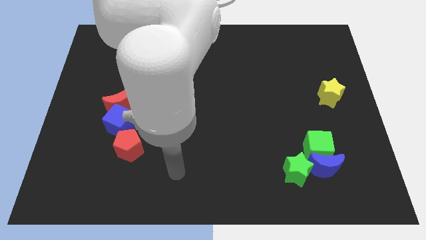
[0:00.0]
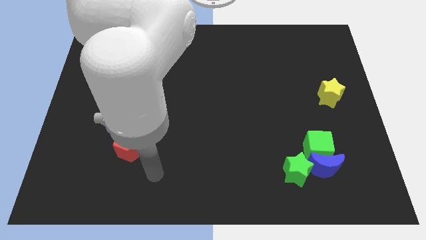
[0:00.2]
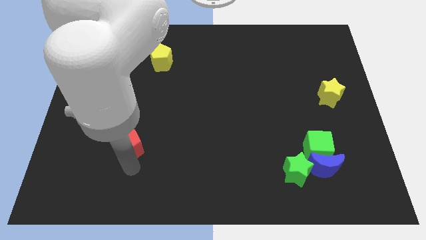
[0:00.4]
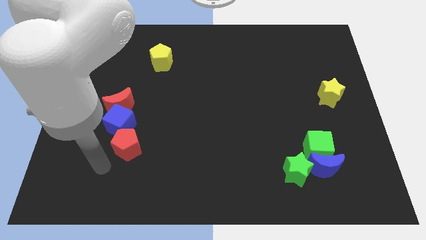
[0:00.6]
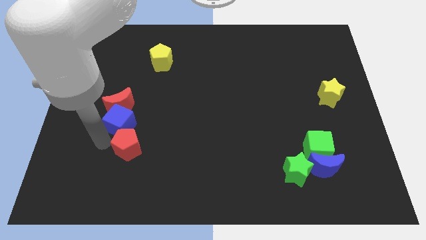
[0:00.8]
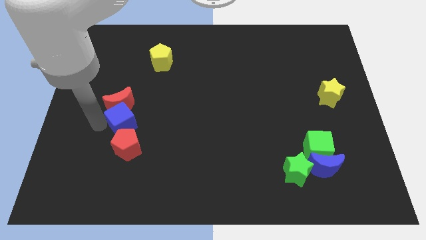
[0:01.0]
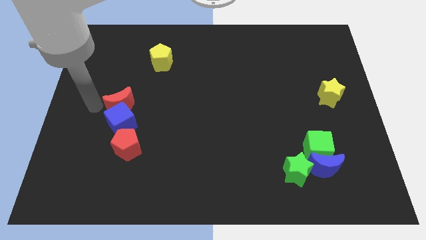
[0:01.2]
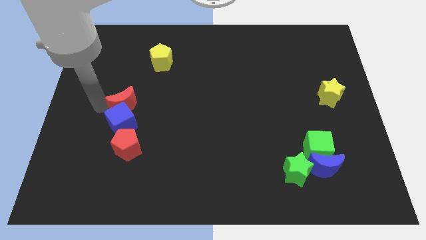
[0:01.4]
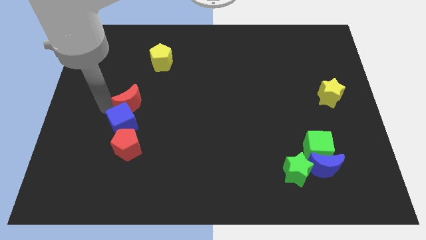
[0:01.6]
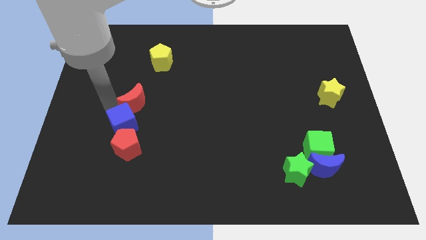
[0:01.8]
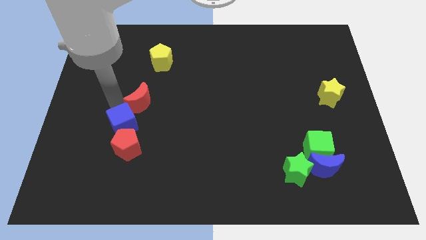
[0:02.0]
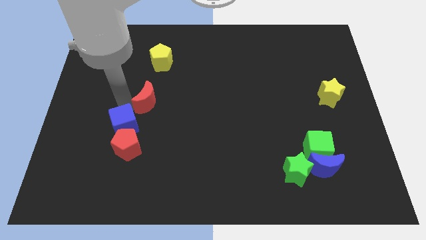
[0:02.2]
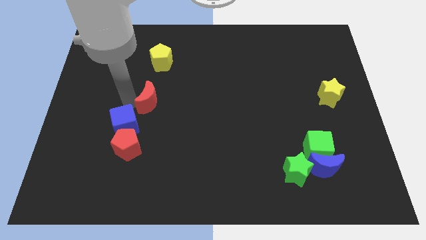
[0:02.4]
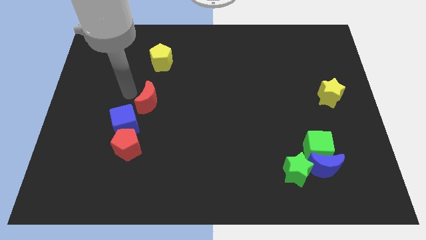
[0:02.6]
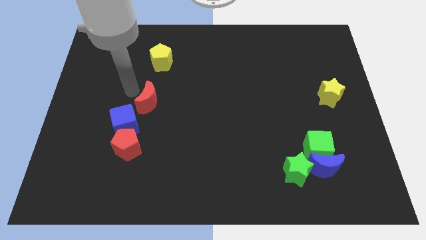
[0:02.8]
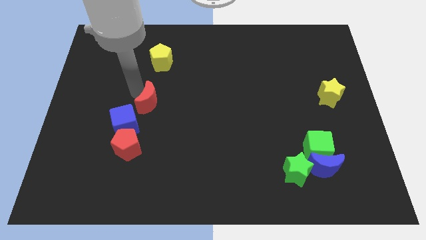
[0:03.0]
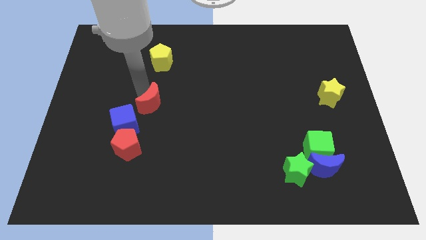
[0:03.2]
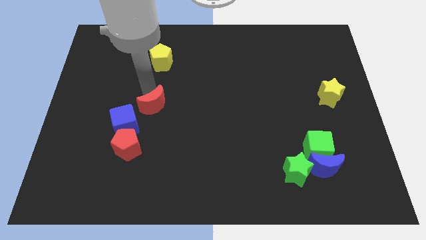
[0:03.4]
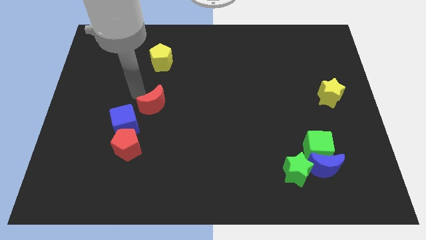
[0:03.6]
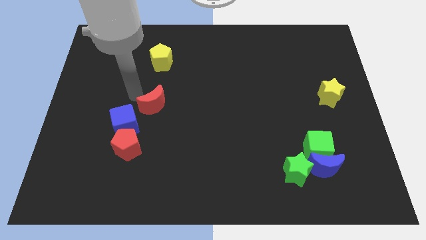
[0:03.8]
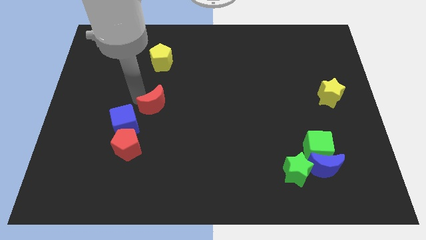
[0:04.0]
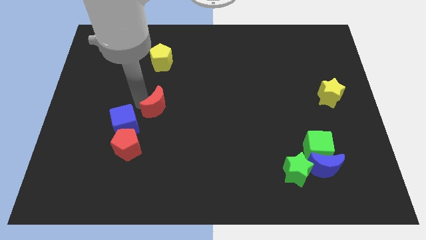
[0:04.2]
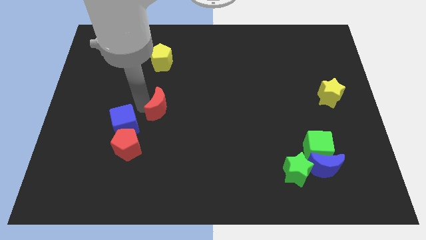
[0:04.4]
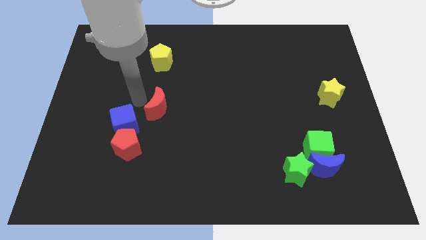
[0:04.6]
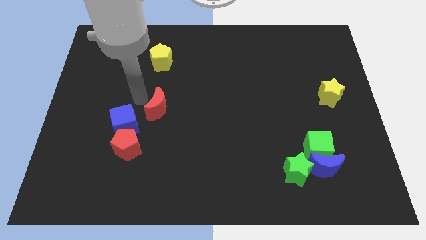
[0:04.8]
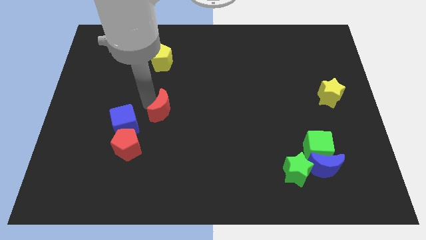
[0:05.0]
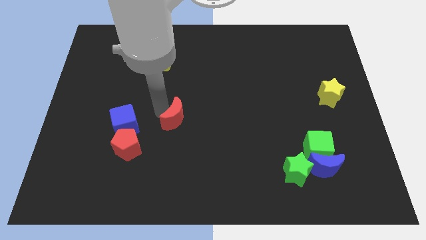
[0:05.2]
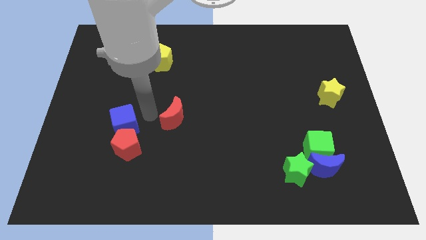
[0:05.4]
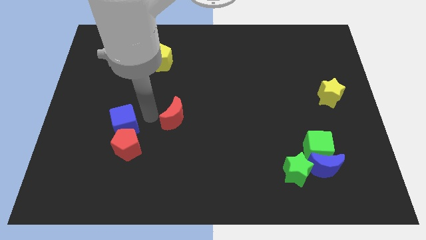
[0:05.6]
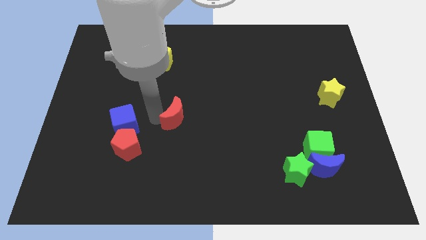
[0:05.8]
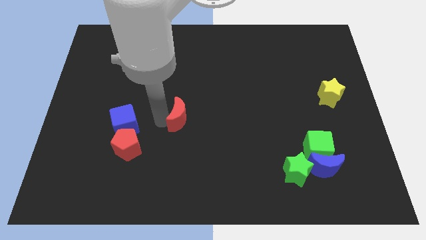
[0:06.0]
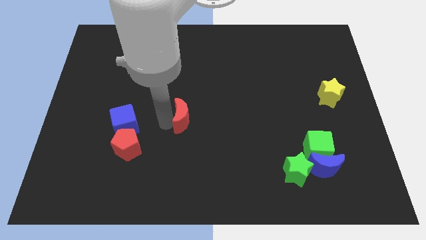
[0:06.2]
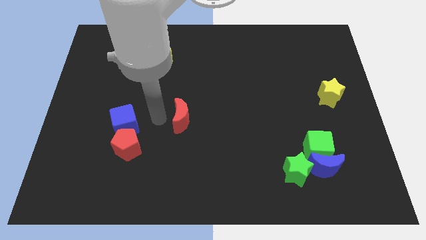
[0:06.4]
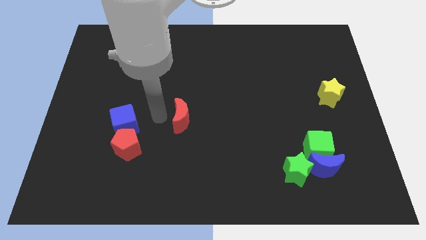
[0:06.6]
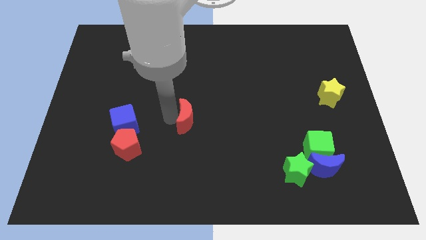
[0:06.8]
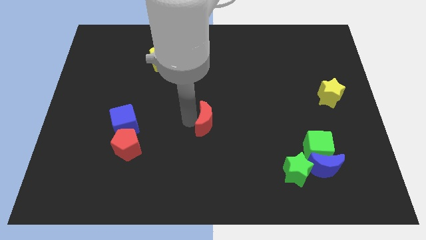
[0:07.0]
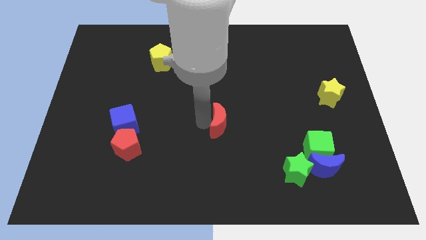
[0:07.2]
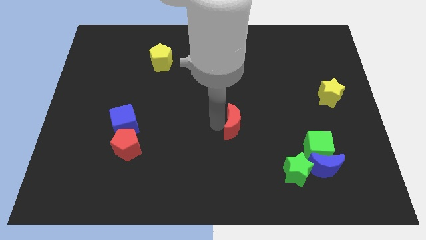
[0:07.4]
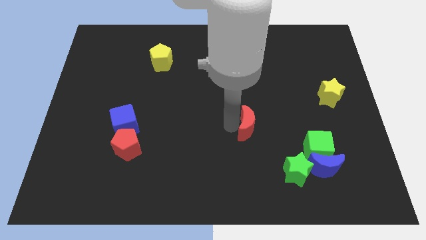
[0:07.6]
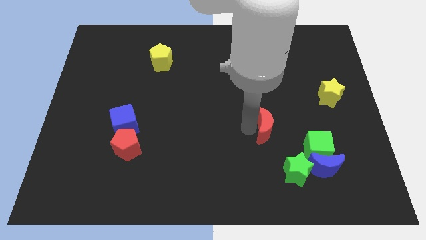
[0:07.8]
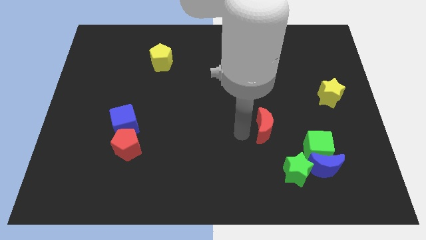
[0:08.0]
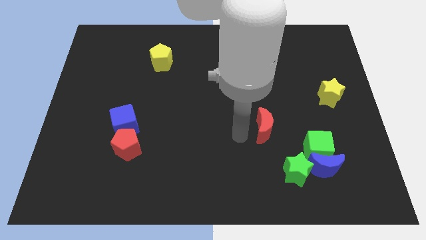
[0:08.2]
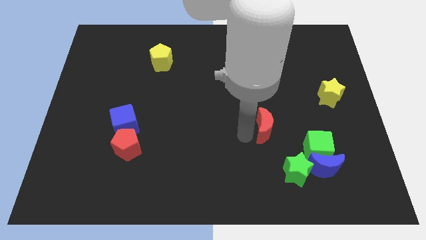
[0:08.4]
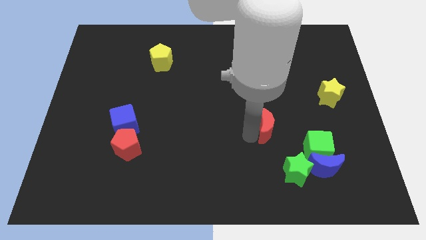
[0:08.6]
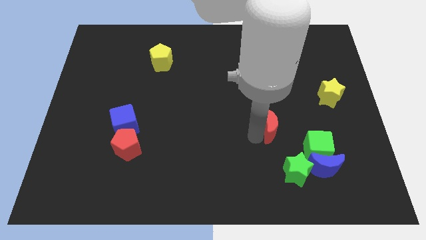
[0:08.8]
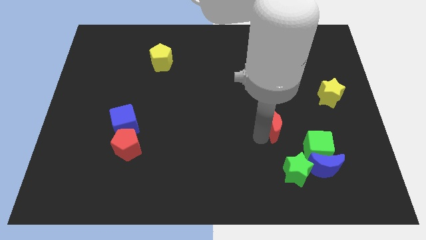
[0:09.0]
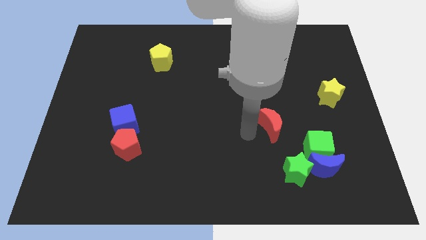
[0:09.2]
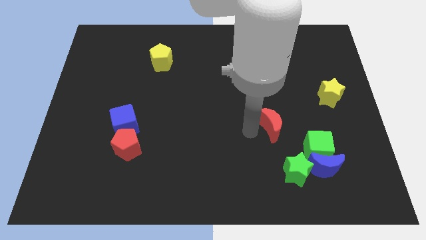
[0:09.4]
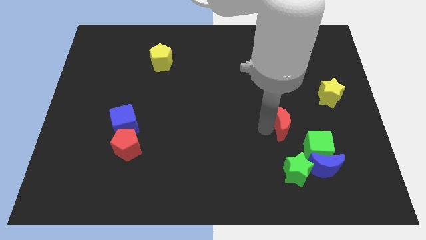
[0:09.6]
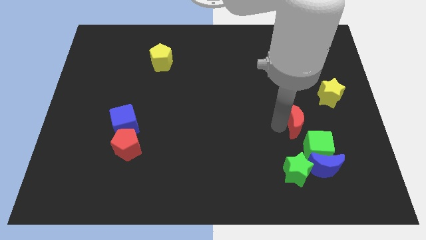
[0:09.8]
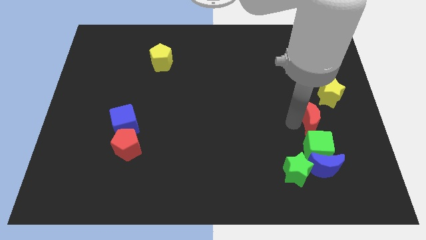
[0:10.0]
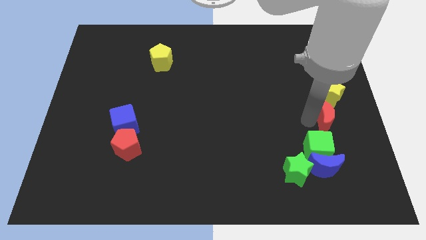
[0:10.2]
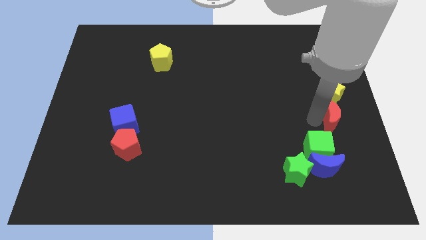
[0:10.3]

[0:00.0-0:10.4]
put the red moon to the center right

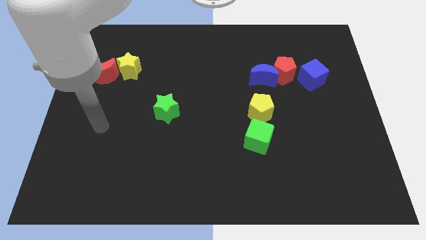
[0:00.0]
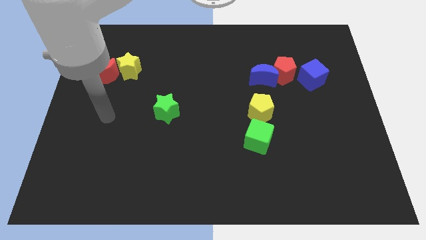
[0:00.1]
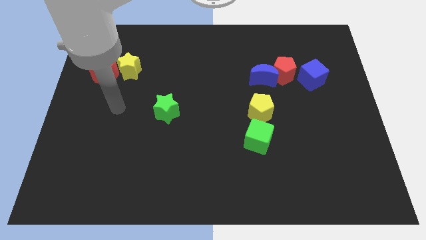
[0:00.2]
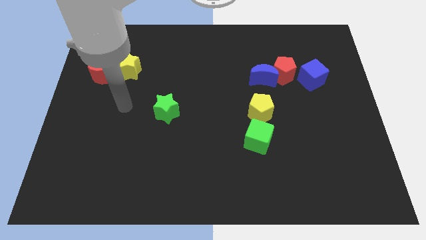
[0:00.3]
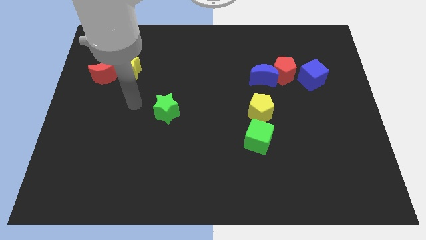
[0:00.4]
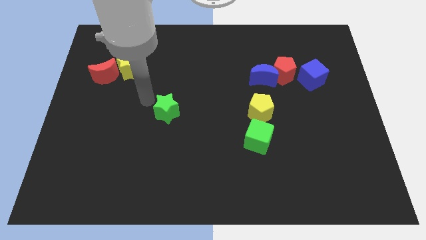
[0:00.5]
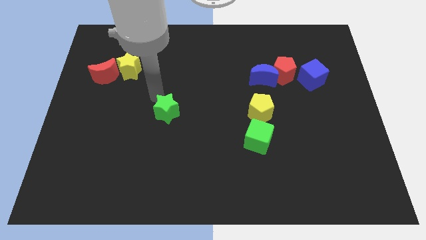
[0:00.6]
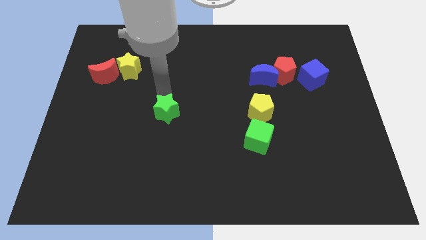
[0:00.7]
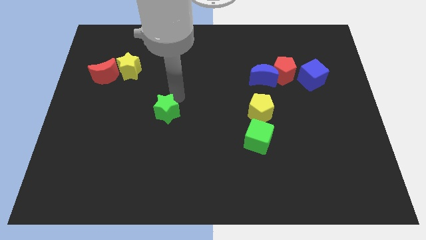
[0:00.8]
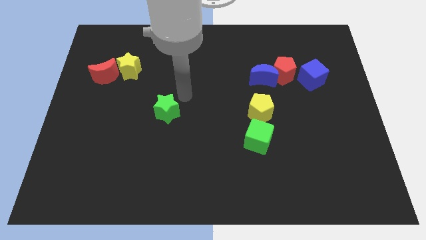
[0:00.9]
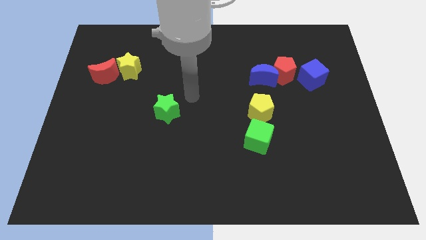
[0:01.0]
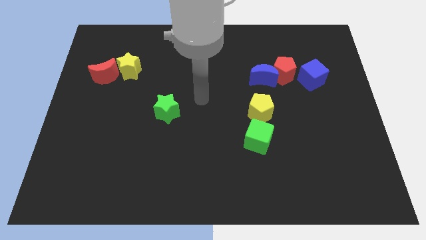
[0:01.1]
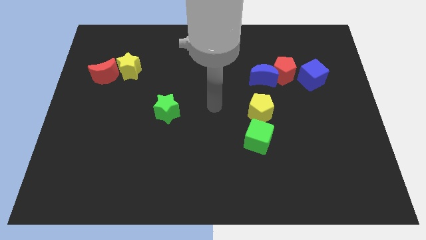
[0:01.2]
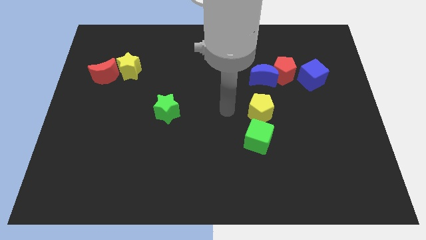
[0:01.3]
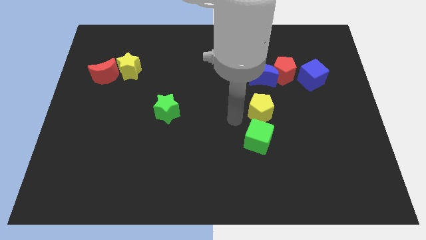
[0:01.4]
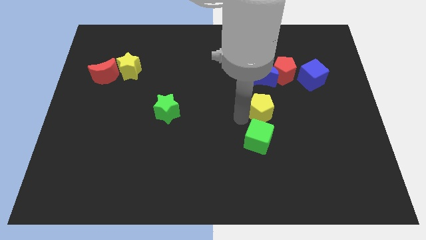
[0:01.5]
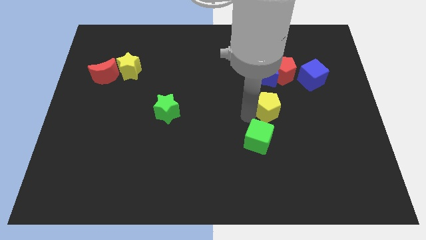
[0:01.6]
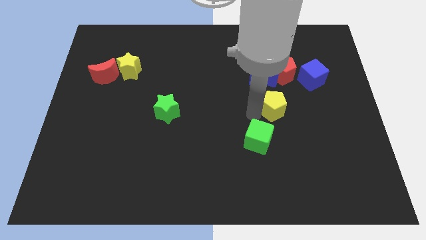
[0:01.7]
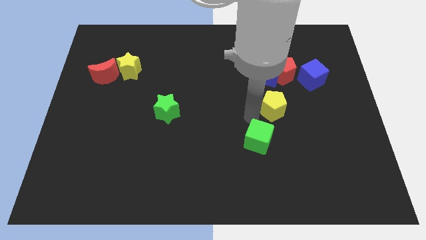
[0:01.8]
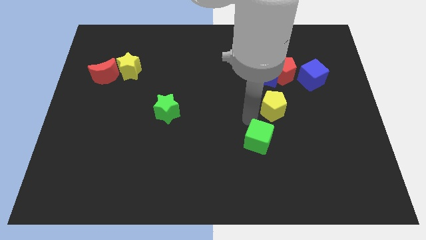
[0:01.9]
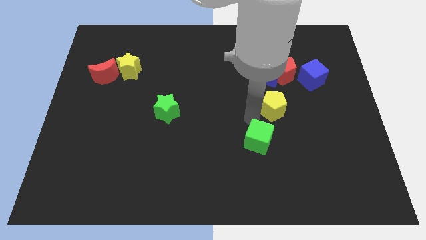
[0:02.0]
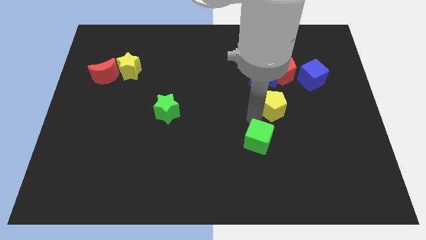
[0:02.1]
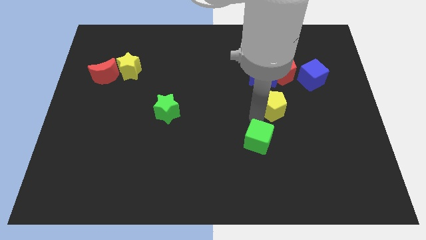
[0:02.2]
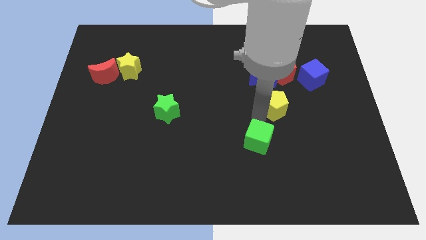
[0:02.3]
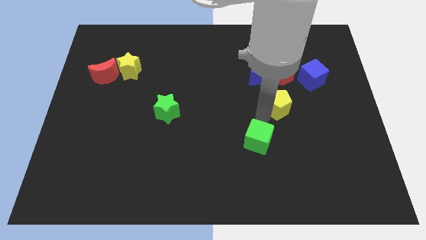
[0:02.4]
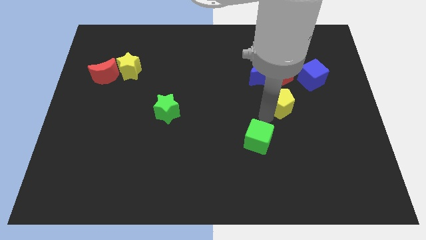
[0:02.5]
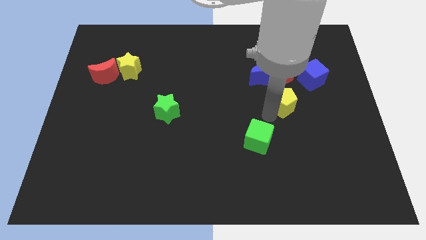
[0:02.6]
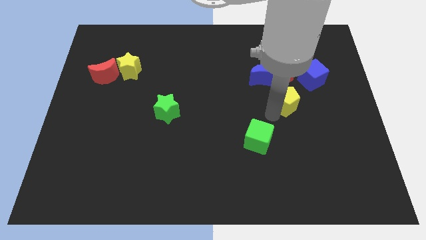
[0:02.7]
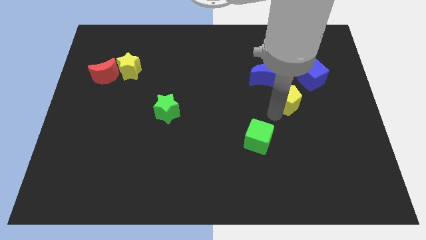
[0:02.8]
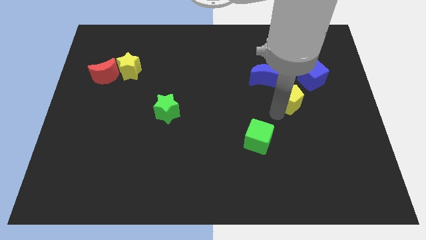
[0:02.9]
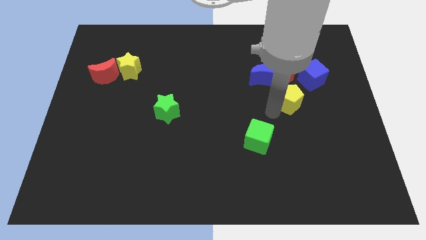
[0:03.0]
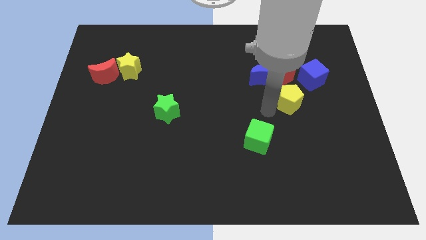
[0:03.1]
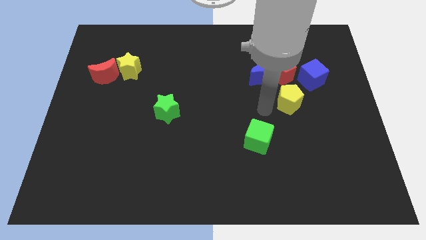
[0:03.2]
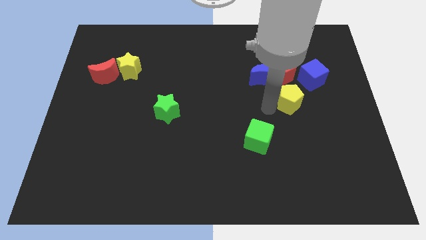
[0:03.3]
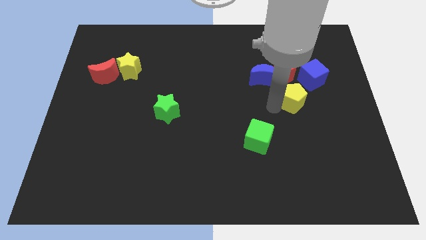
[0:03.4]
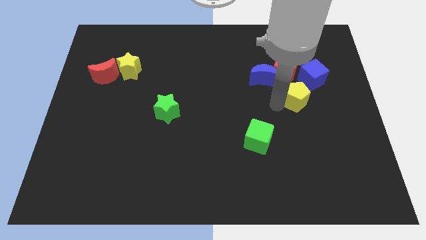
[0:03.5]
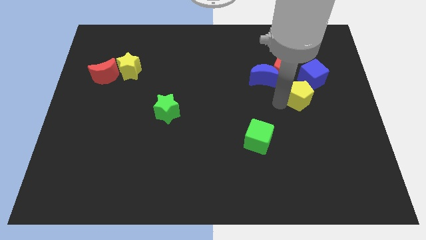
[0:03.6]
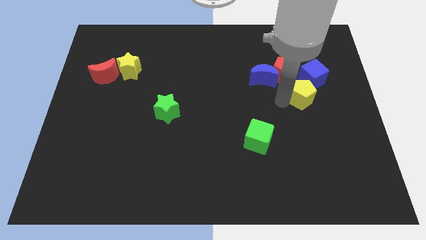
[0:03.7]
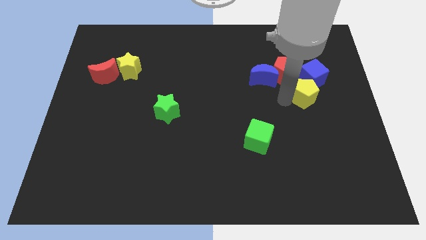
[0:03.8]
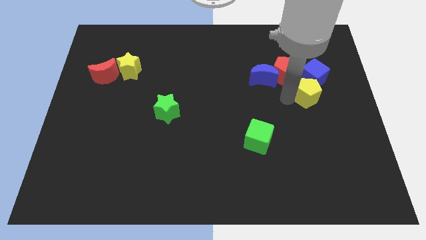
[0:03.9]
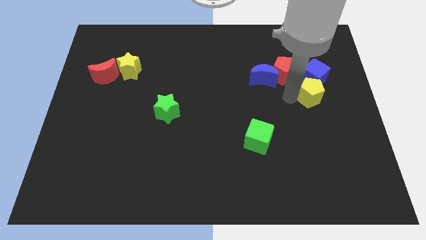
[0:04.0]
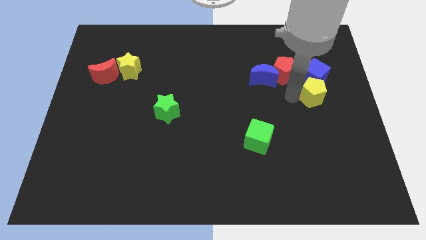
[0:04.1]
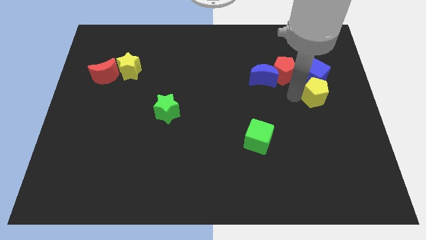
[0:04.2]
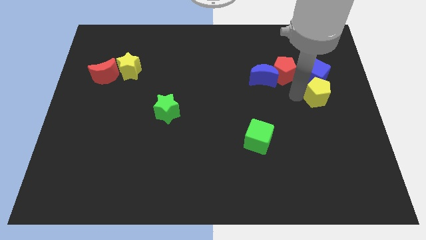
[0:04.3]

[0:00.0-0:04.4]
move the yellow pentagon to the center right
